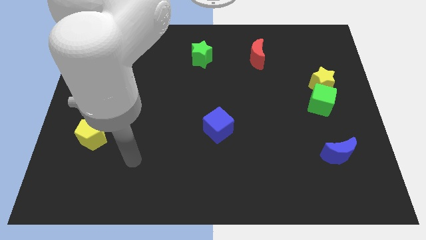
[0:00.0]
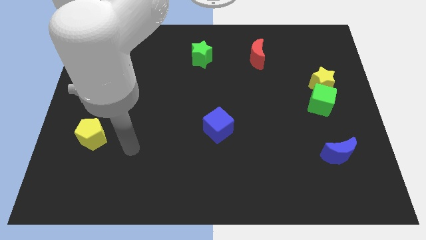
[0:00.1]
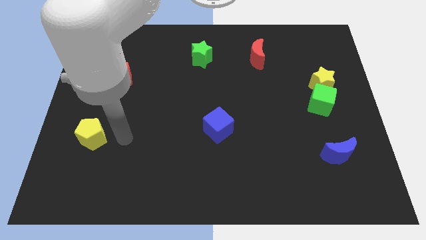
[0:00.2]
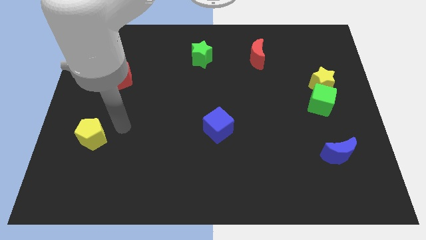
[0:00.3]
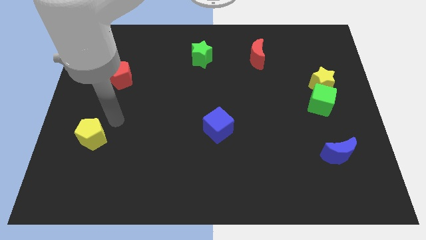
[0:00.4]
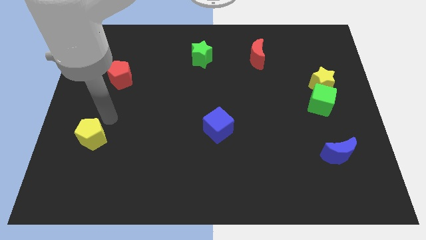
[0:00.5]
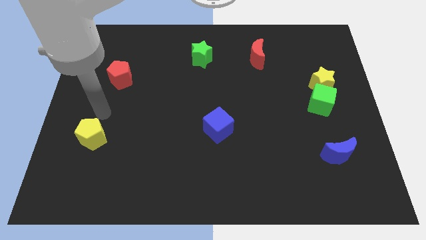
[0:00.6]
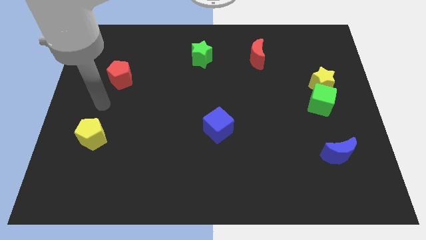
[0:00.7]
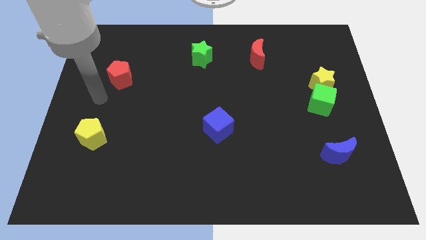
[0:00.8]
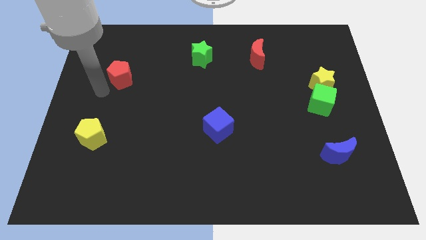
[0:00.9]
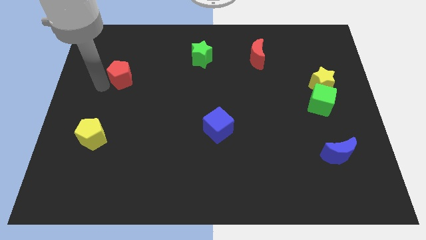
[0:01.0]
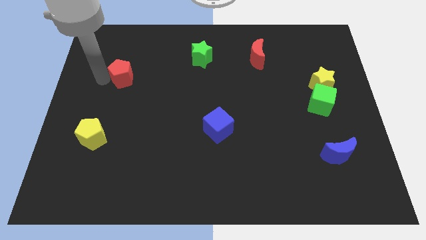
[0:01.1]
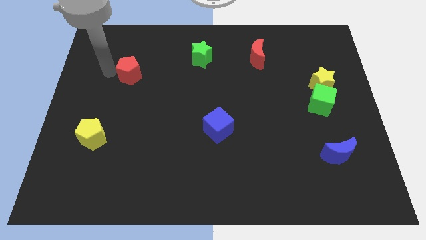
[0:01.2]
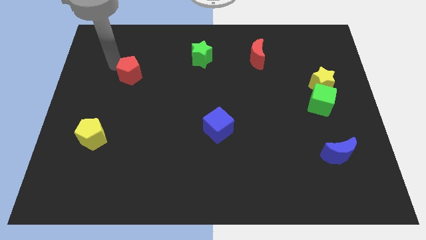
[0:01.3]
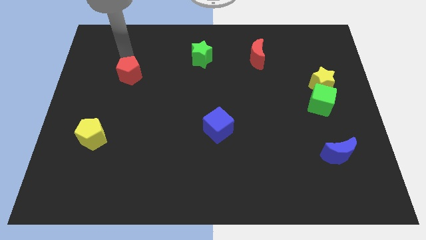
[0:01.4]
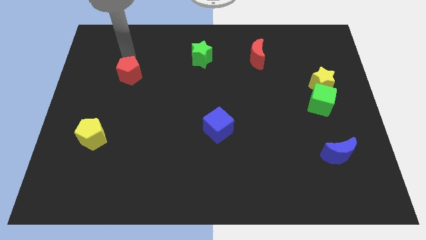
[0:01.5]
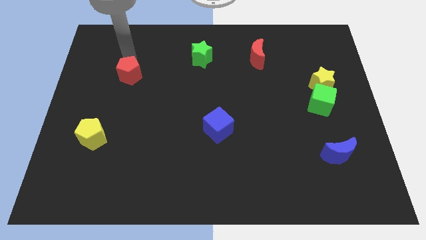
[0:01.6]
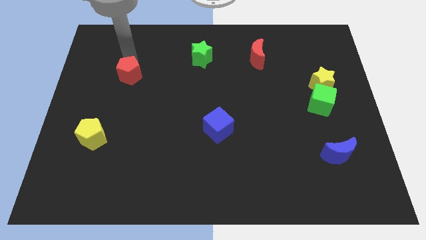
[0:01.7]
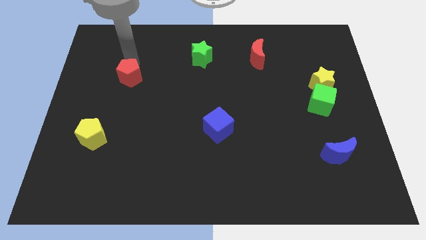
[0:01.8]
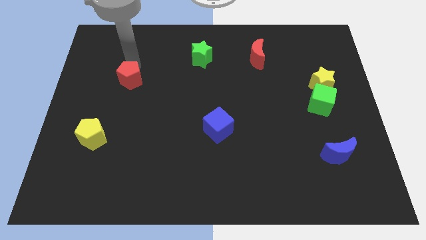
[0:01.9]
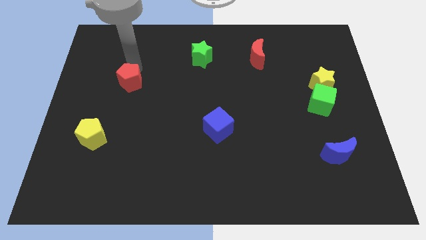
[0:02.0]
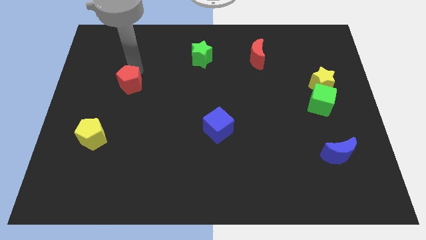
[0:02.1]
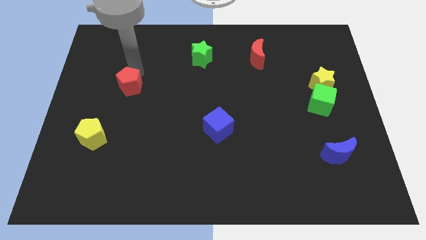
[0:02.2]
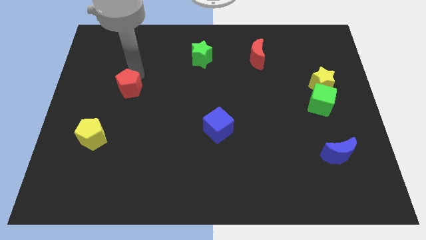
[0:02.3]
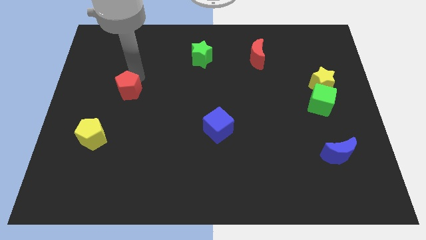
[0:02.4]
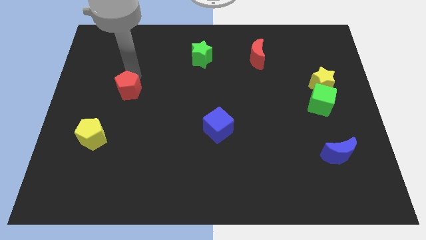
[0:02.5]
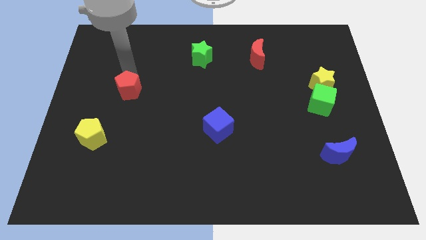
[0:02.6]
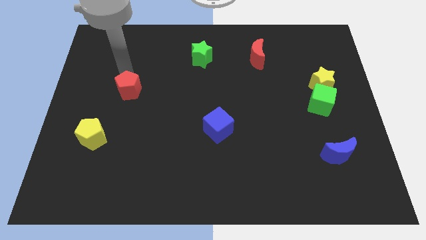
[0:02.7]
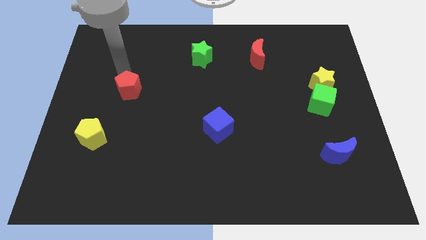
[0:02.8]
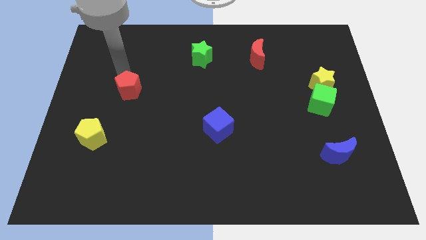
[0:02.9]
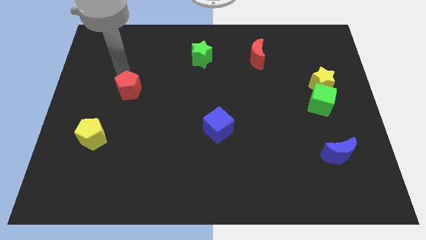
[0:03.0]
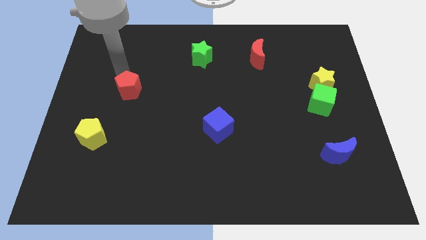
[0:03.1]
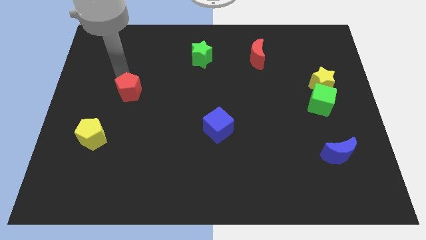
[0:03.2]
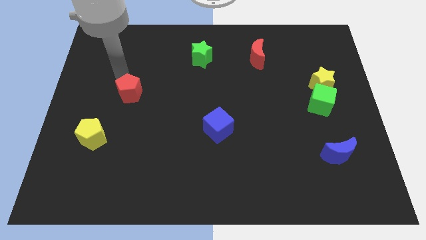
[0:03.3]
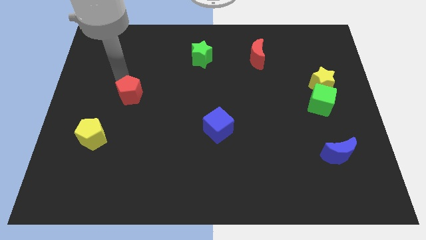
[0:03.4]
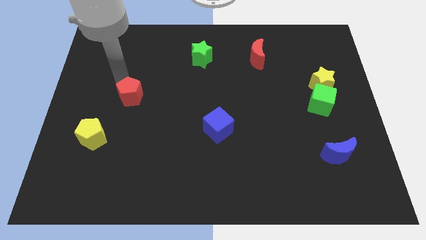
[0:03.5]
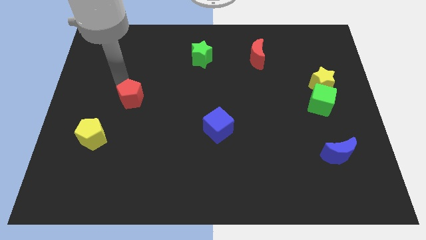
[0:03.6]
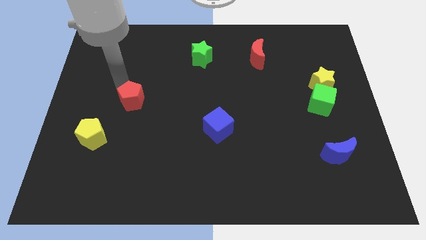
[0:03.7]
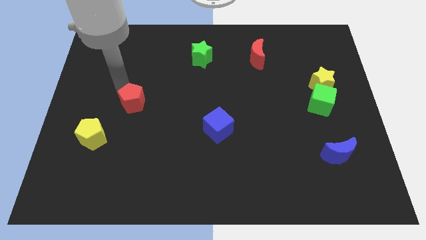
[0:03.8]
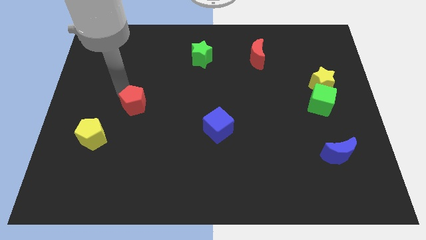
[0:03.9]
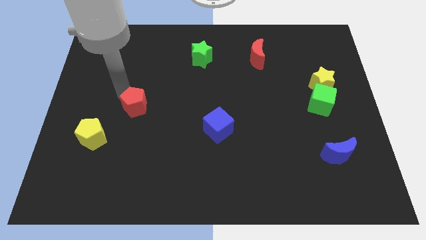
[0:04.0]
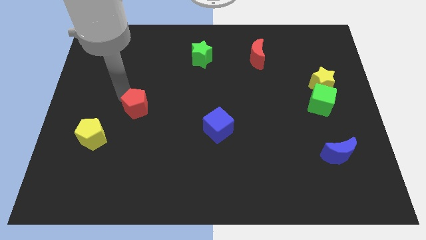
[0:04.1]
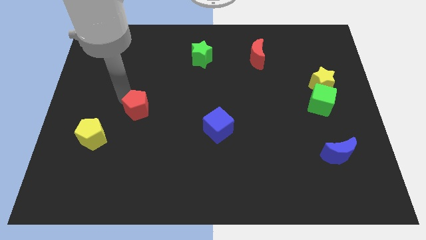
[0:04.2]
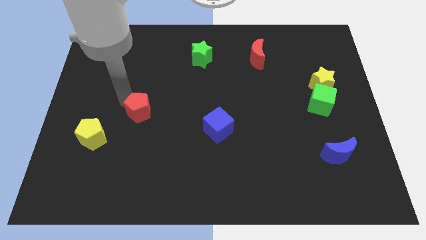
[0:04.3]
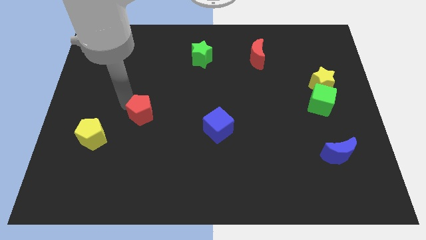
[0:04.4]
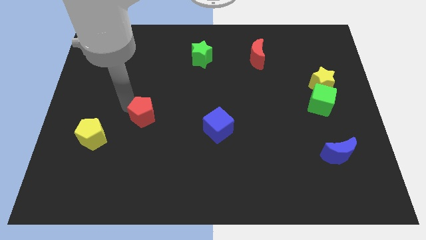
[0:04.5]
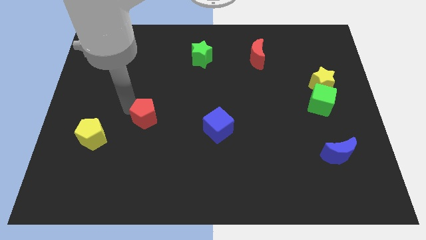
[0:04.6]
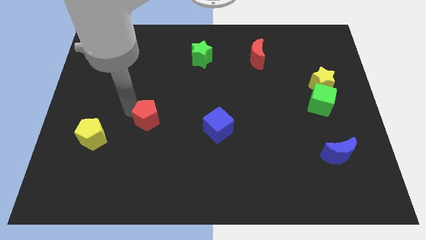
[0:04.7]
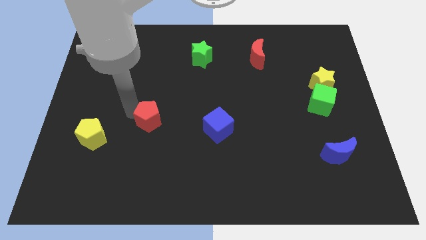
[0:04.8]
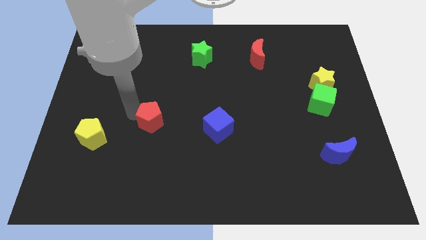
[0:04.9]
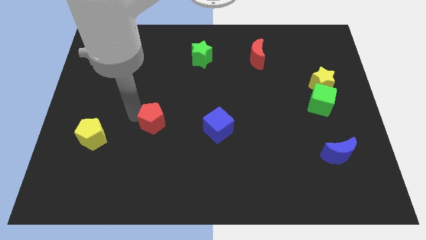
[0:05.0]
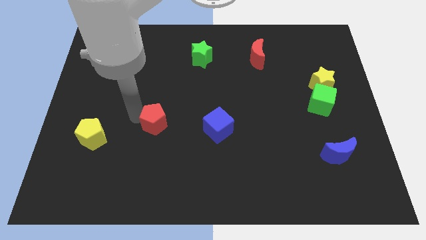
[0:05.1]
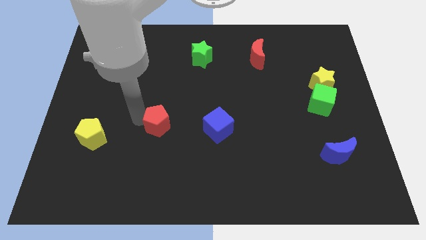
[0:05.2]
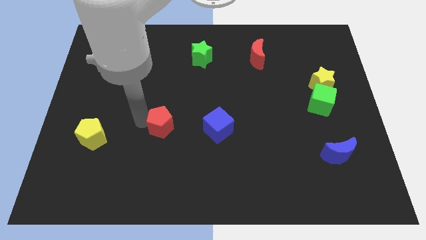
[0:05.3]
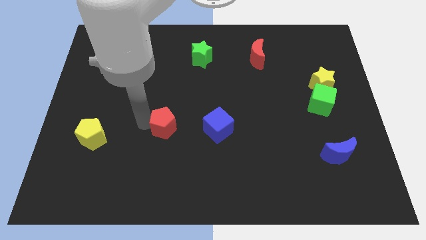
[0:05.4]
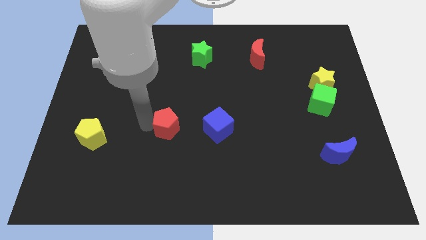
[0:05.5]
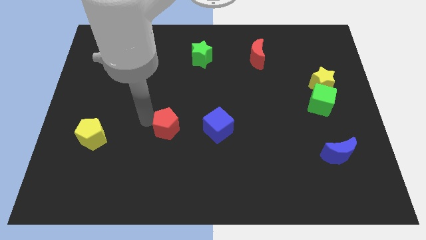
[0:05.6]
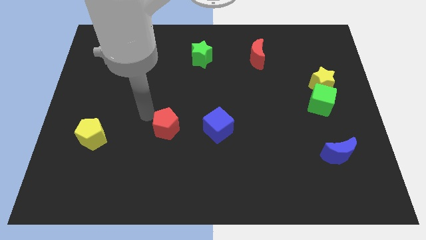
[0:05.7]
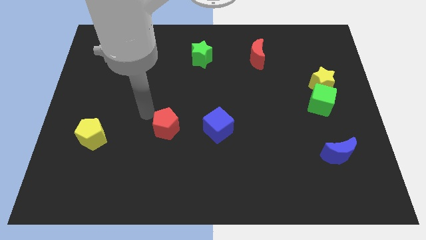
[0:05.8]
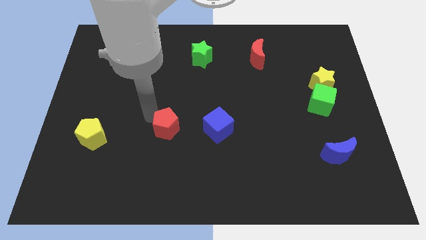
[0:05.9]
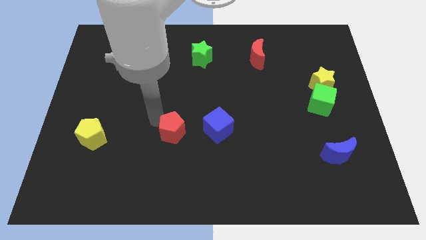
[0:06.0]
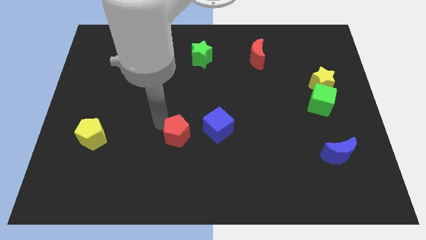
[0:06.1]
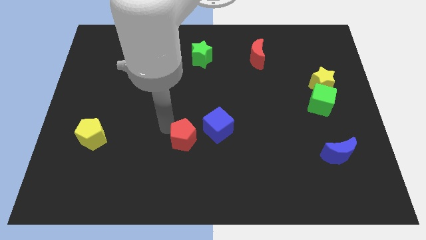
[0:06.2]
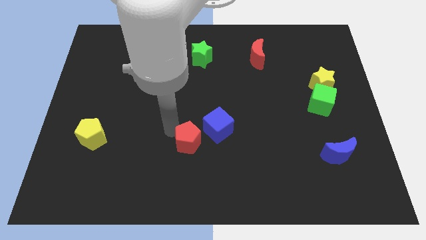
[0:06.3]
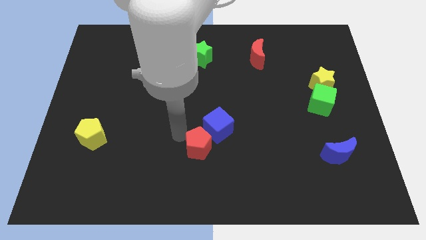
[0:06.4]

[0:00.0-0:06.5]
push the red pentagon to the bottom of the blue cube

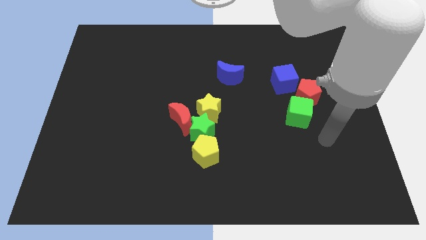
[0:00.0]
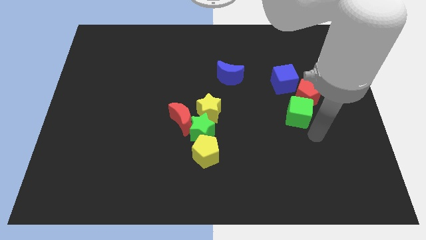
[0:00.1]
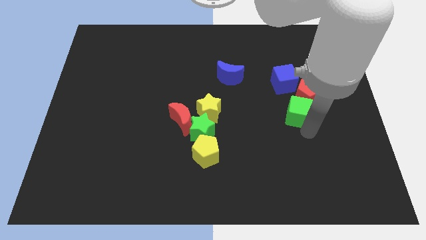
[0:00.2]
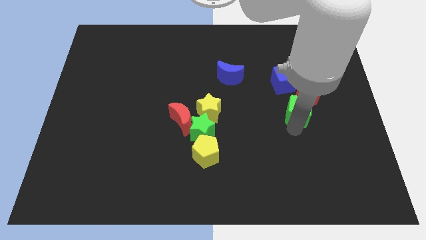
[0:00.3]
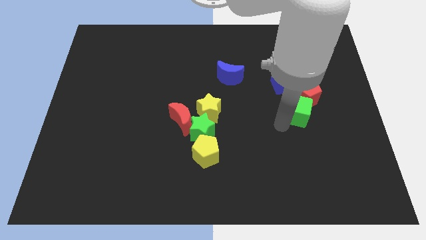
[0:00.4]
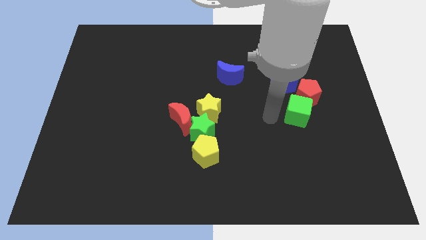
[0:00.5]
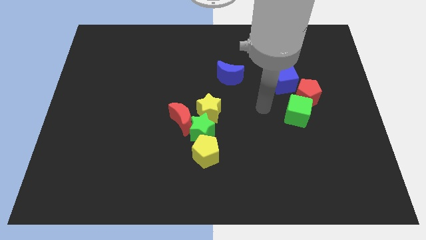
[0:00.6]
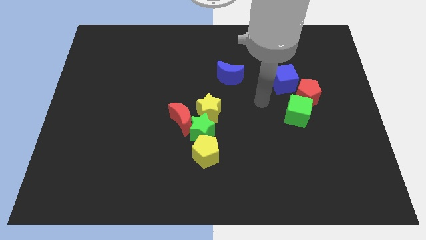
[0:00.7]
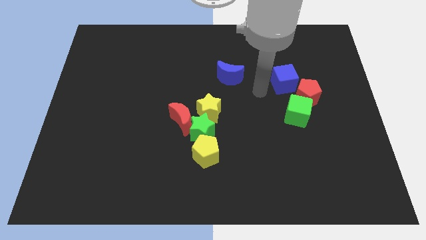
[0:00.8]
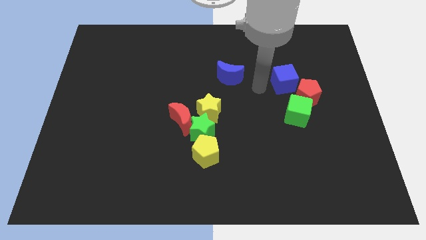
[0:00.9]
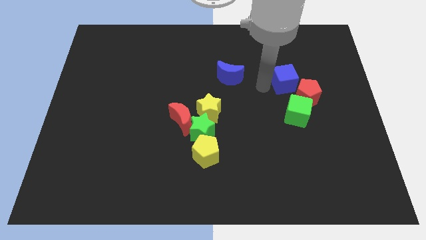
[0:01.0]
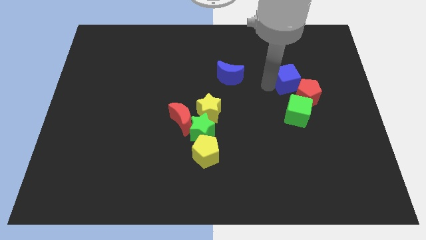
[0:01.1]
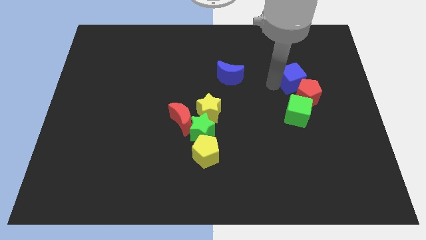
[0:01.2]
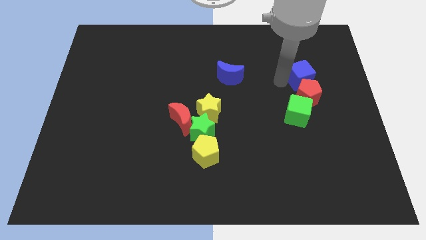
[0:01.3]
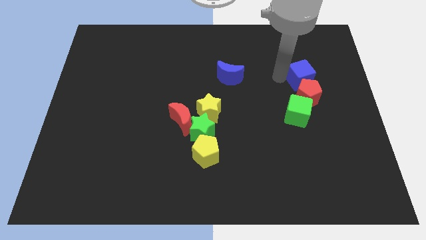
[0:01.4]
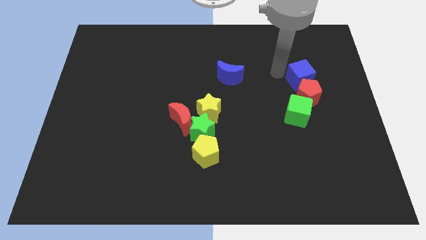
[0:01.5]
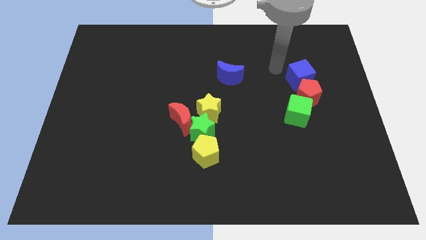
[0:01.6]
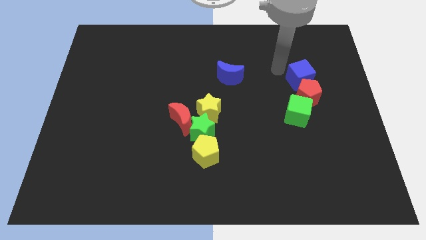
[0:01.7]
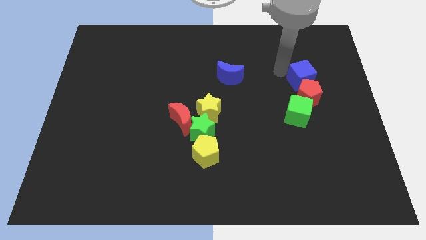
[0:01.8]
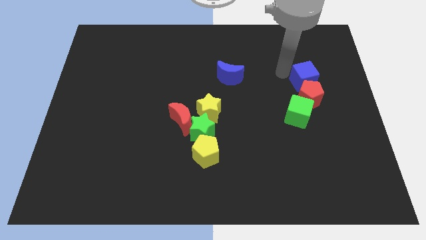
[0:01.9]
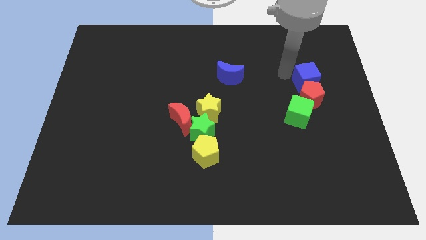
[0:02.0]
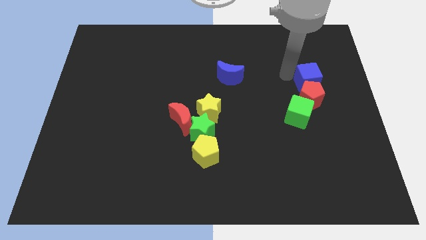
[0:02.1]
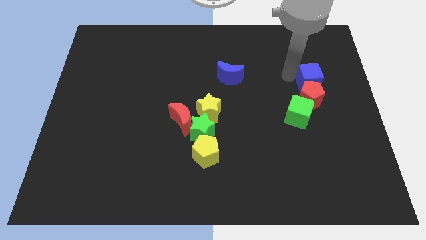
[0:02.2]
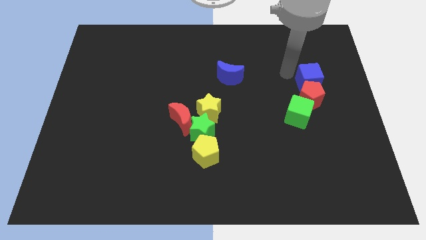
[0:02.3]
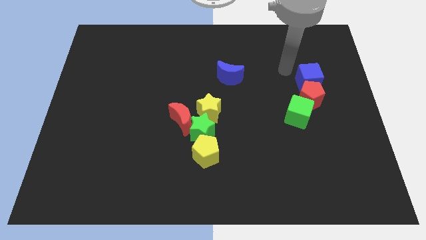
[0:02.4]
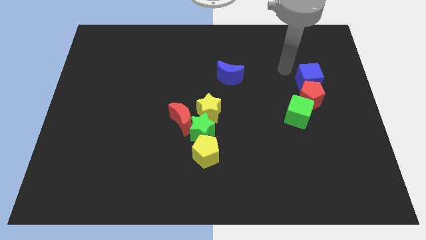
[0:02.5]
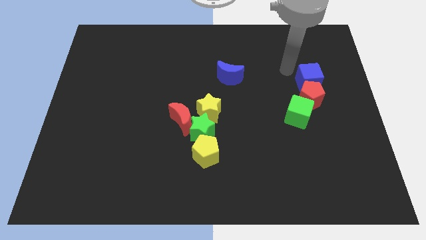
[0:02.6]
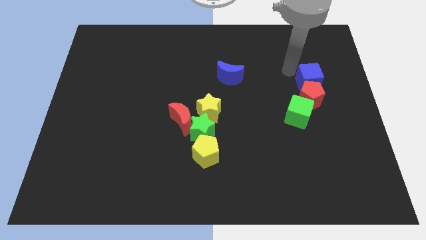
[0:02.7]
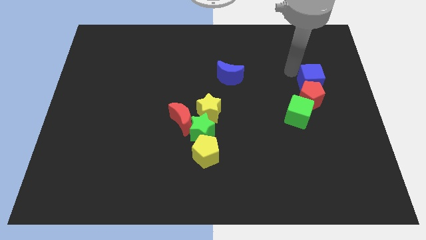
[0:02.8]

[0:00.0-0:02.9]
put the blue cube diagonally up and to the right of the green cube
